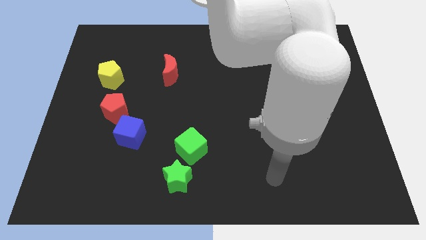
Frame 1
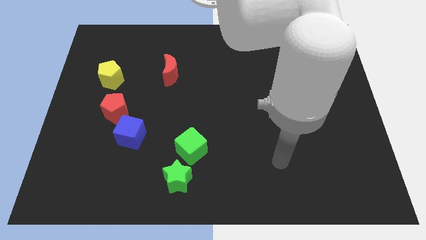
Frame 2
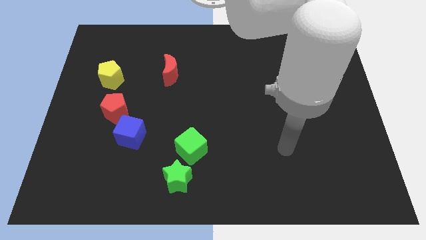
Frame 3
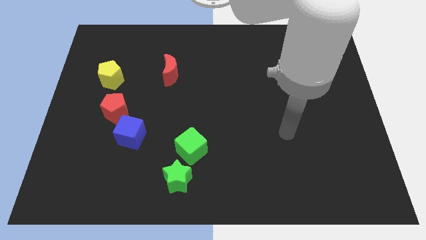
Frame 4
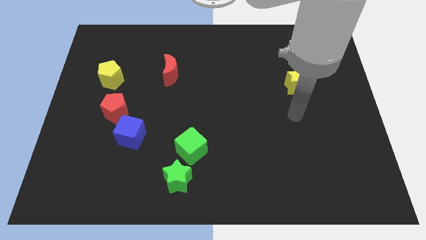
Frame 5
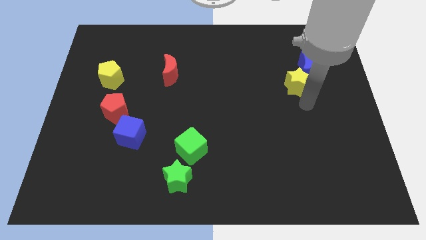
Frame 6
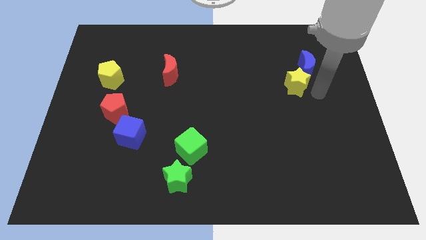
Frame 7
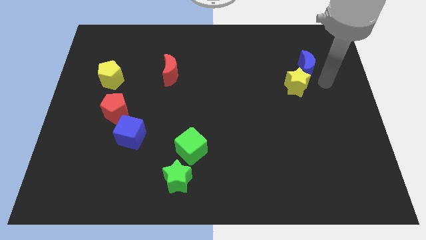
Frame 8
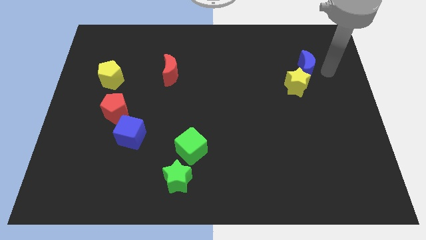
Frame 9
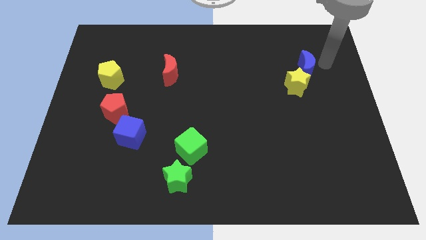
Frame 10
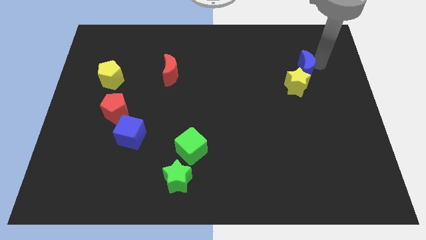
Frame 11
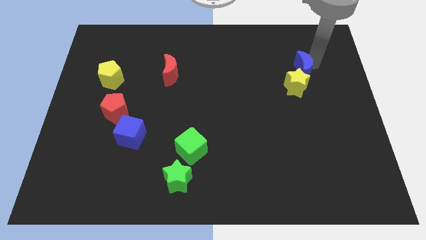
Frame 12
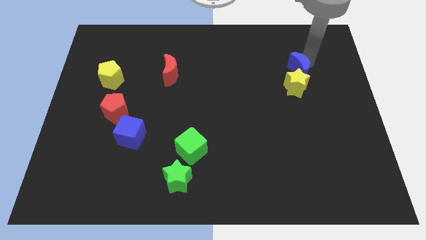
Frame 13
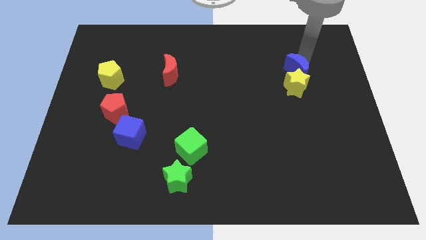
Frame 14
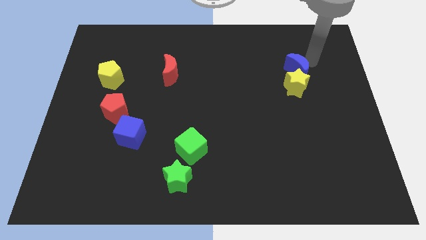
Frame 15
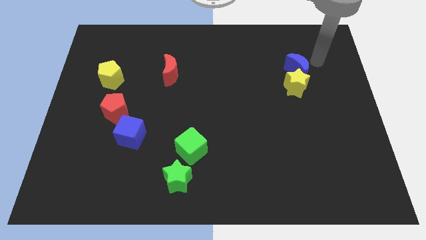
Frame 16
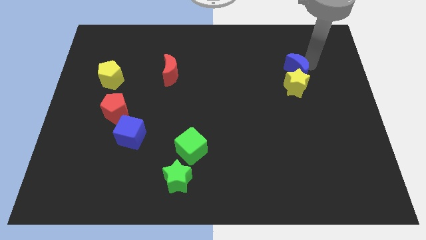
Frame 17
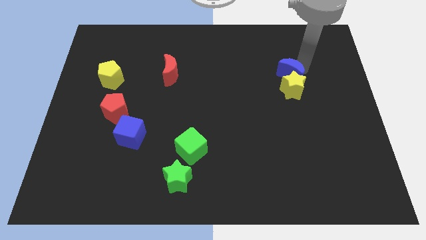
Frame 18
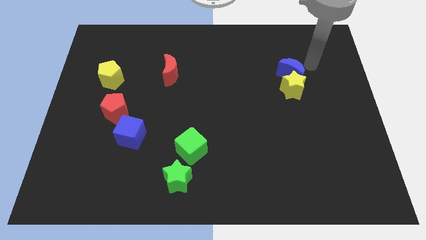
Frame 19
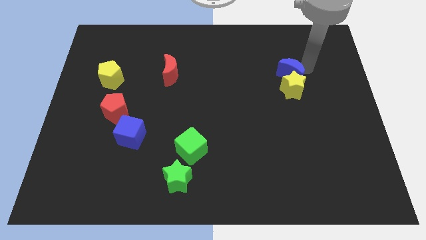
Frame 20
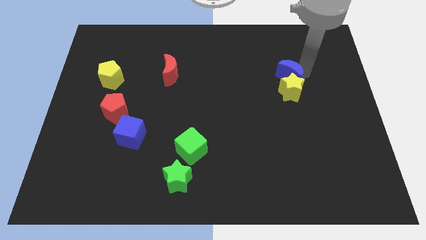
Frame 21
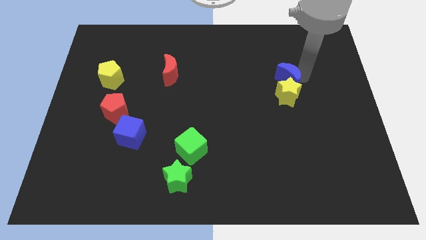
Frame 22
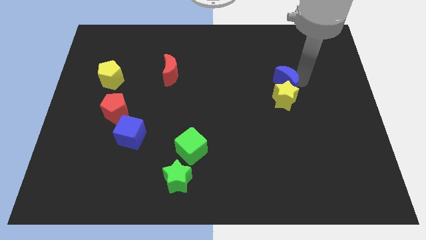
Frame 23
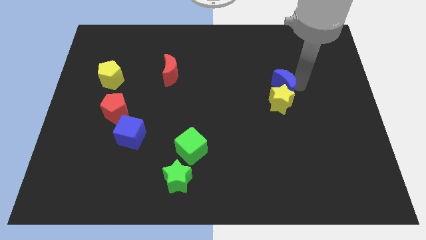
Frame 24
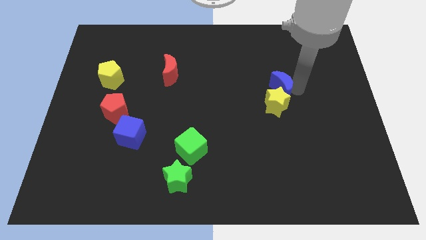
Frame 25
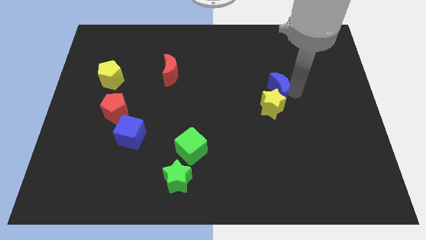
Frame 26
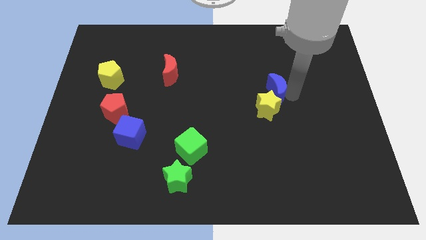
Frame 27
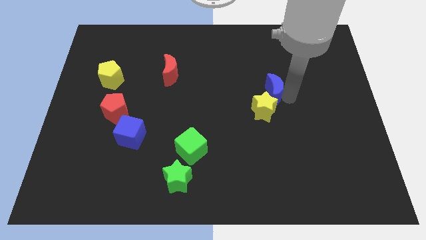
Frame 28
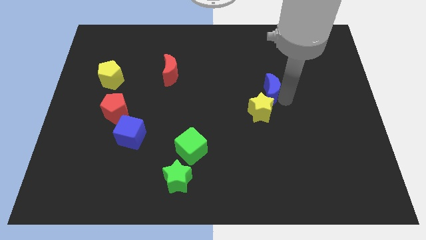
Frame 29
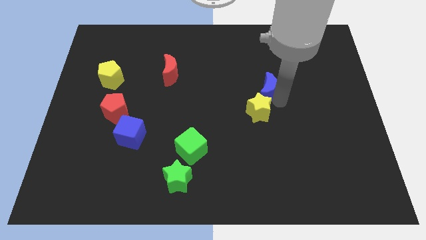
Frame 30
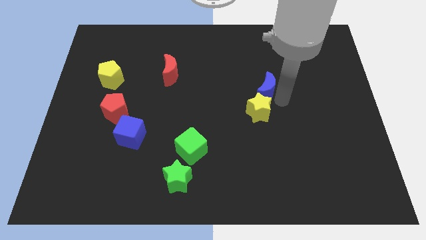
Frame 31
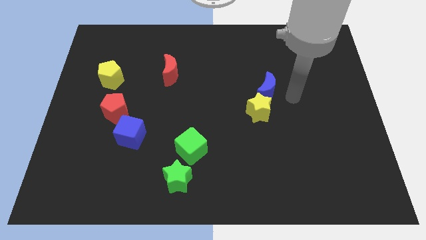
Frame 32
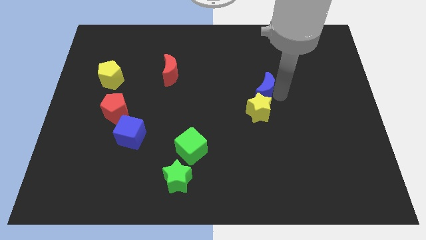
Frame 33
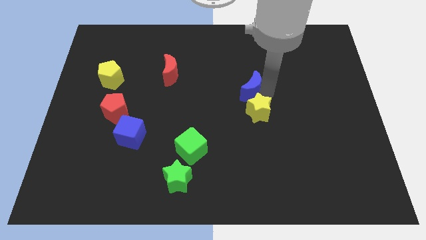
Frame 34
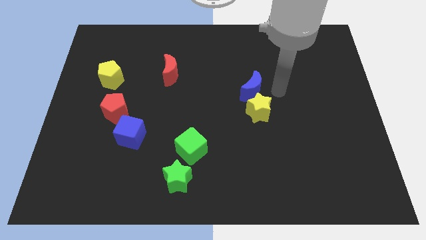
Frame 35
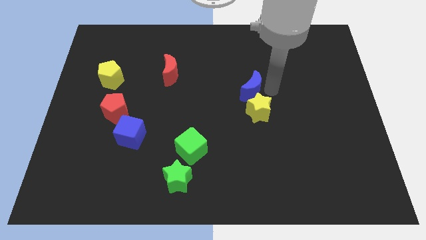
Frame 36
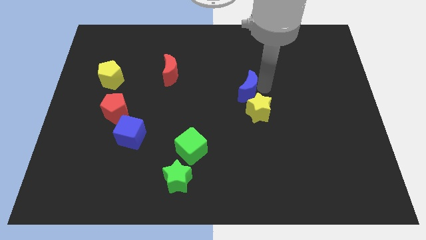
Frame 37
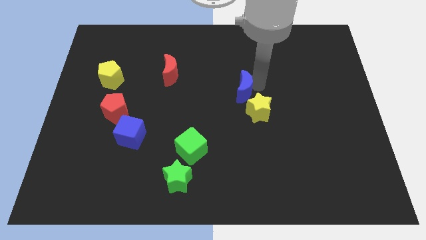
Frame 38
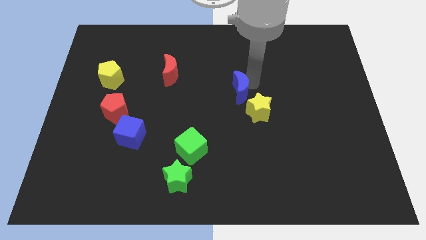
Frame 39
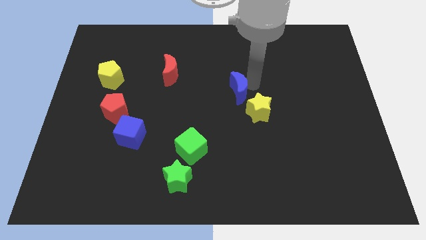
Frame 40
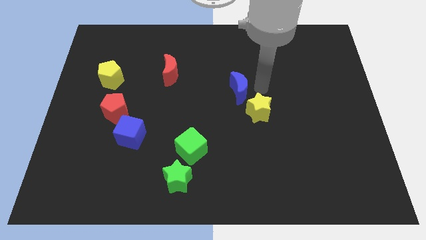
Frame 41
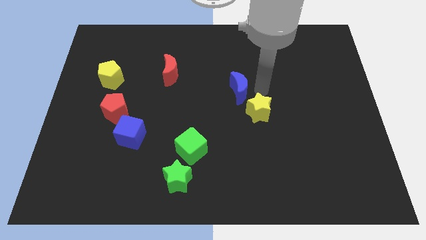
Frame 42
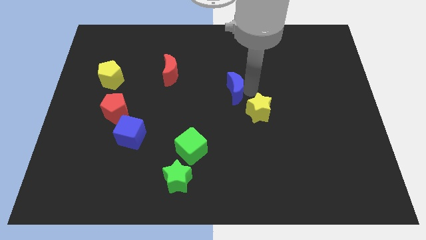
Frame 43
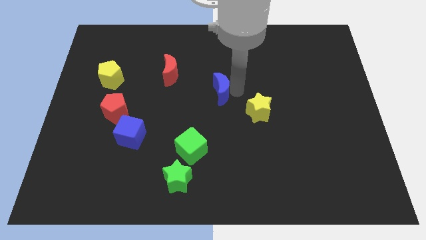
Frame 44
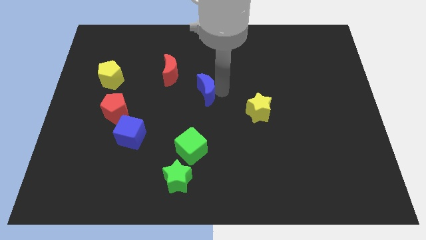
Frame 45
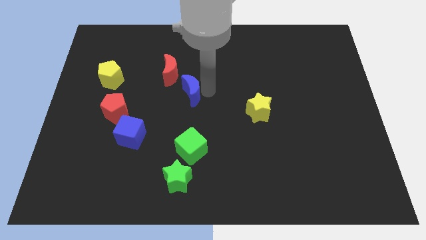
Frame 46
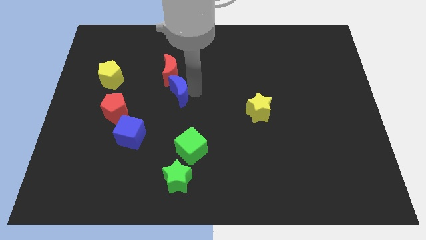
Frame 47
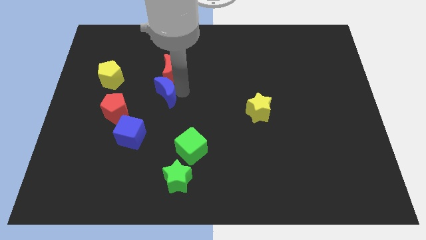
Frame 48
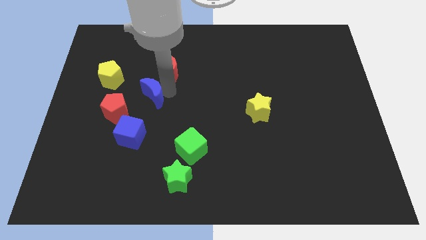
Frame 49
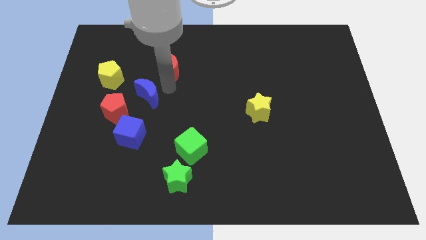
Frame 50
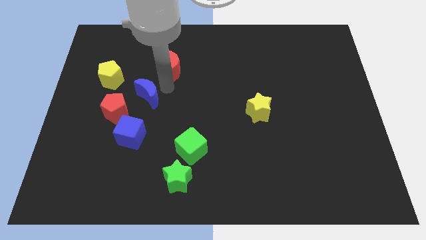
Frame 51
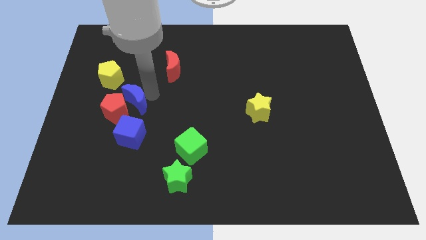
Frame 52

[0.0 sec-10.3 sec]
push the blue moon to the red pentagon

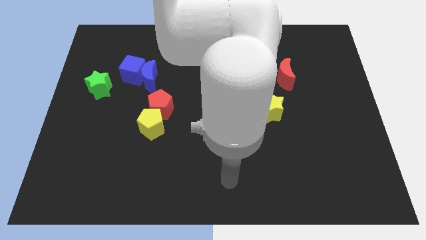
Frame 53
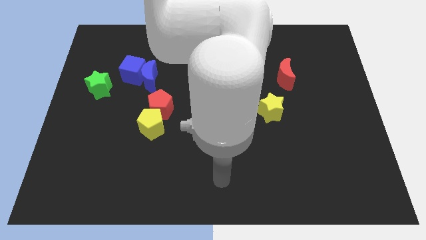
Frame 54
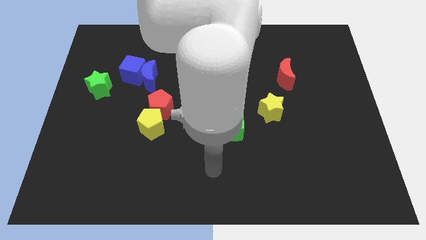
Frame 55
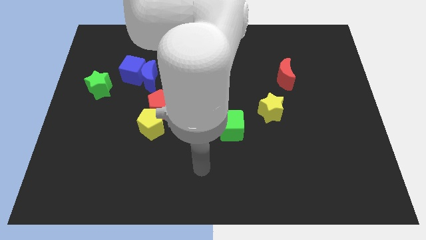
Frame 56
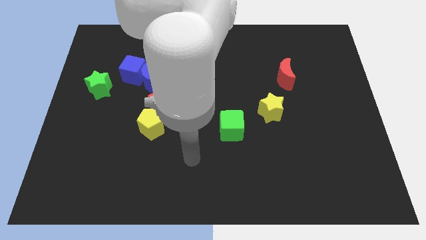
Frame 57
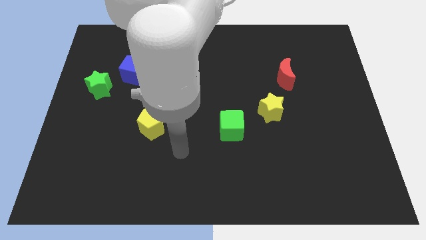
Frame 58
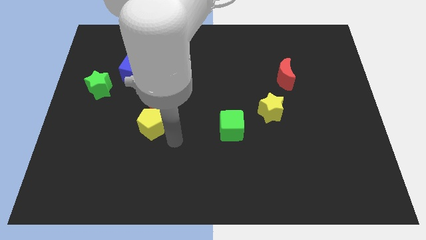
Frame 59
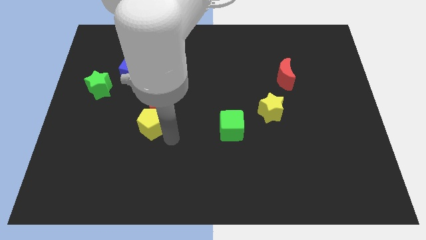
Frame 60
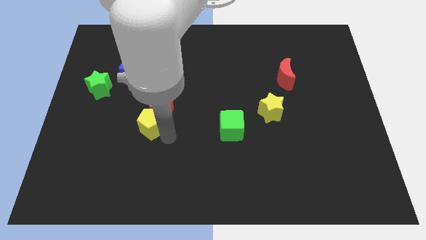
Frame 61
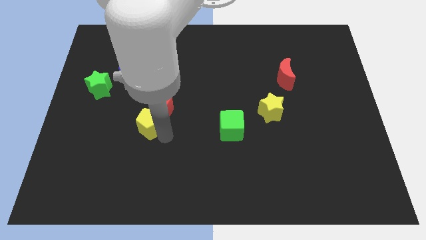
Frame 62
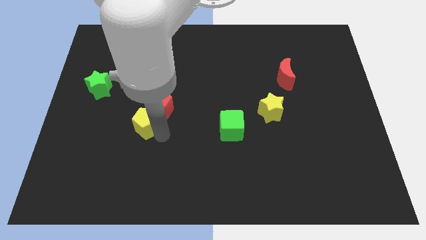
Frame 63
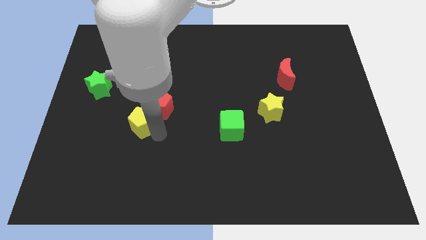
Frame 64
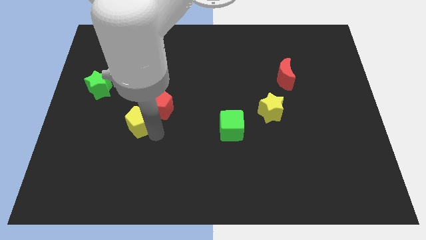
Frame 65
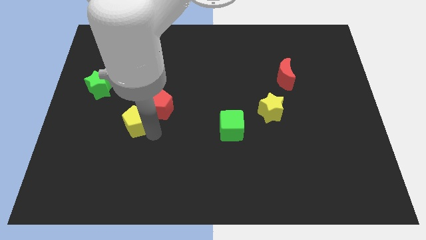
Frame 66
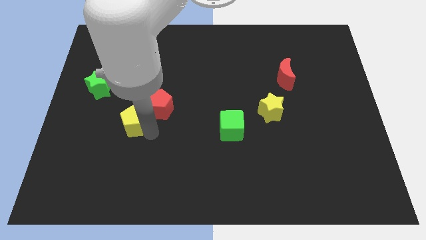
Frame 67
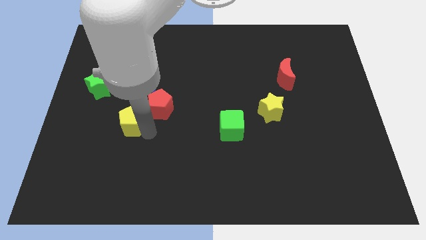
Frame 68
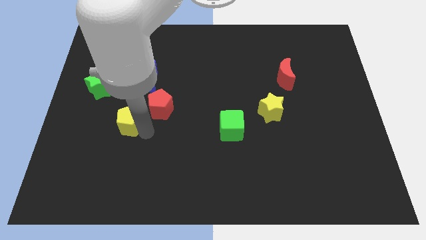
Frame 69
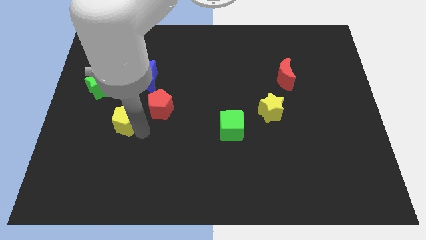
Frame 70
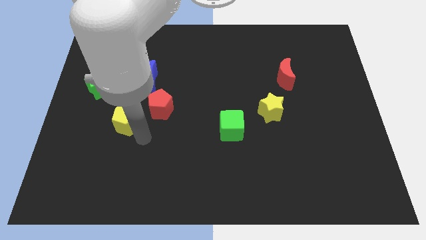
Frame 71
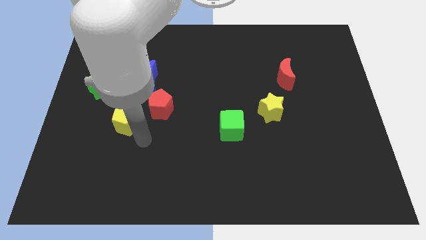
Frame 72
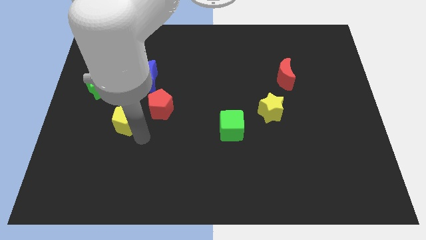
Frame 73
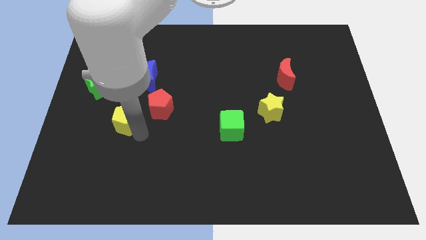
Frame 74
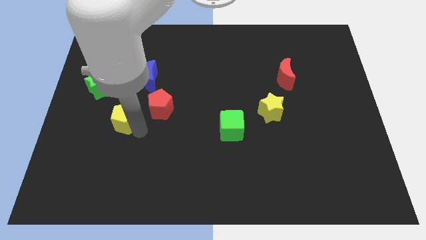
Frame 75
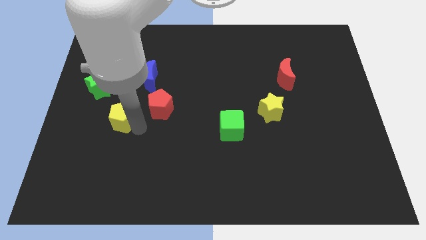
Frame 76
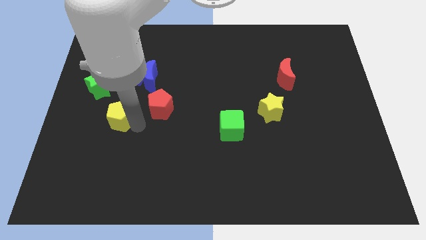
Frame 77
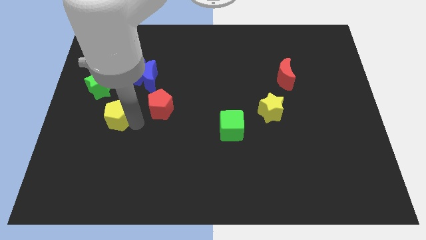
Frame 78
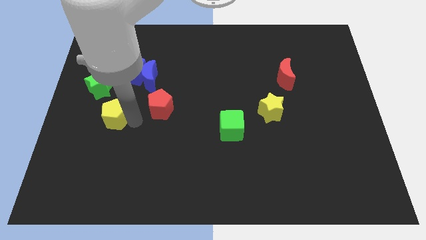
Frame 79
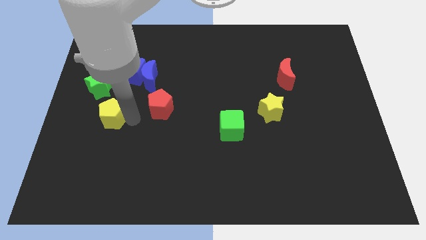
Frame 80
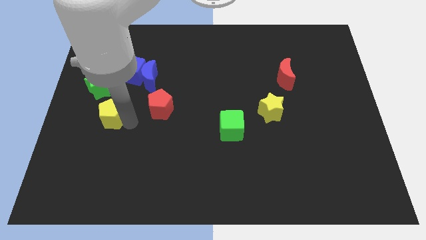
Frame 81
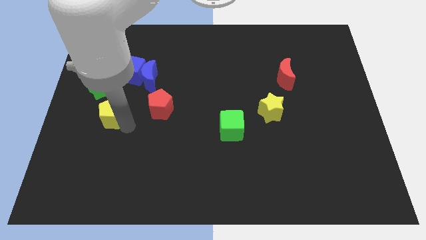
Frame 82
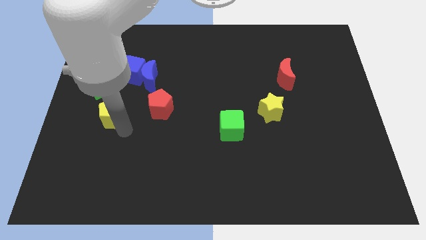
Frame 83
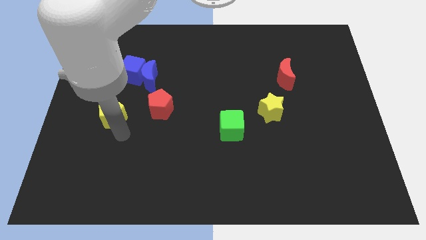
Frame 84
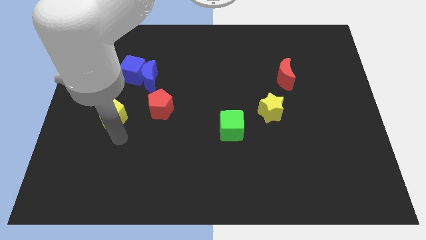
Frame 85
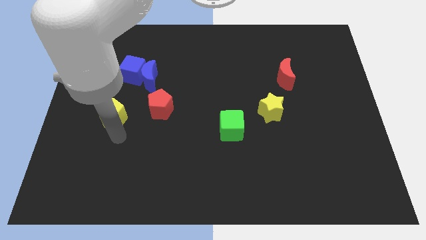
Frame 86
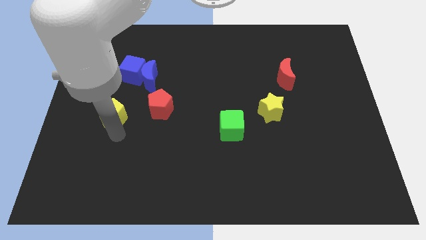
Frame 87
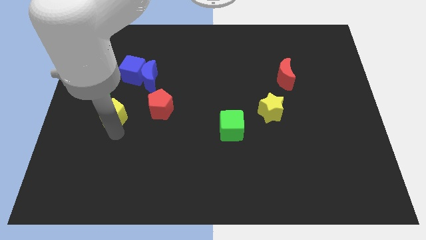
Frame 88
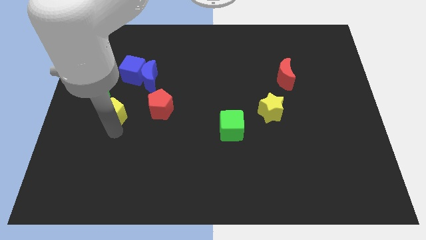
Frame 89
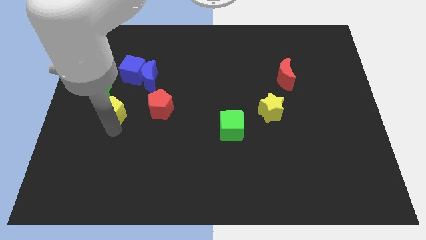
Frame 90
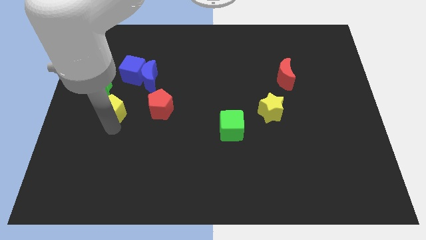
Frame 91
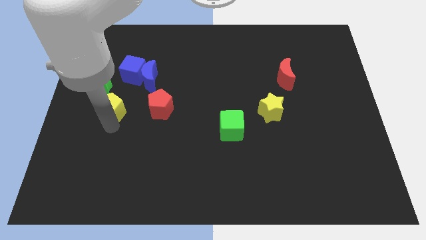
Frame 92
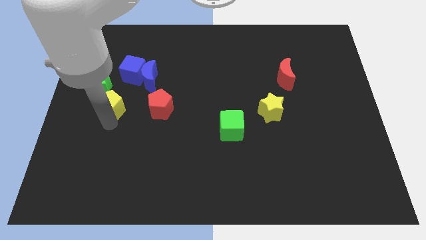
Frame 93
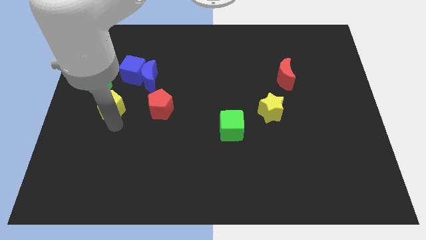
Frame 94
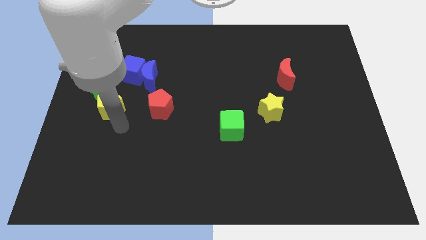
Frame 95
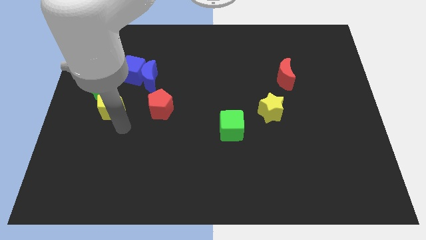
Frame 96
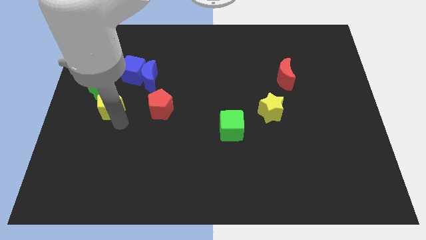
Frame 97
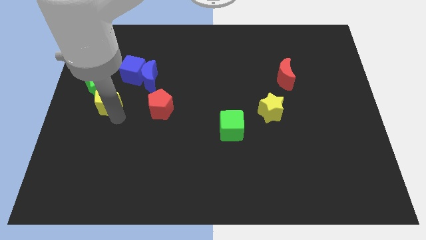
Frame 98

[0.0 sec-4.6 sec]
move the yellow pentagon towards the green star
